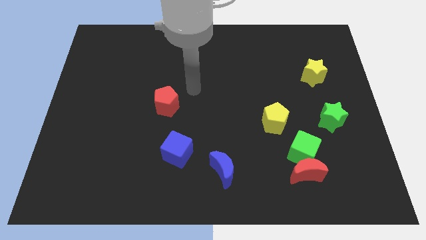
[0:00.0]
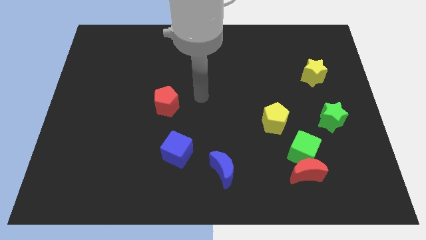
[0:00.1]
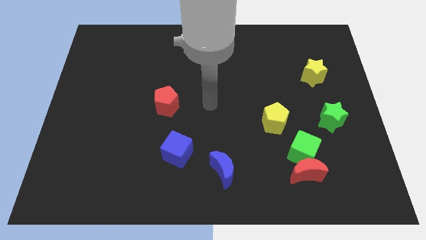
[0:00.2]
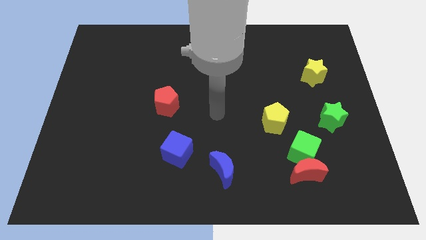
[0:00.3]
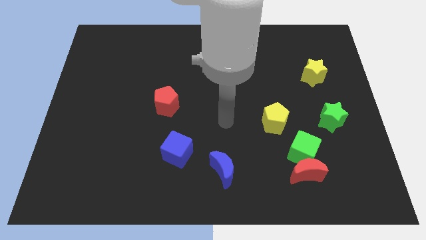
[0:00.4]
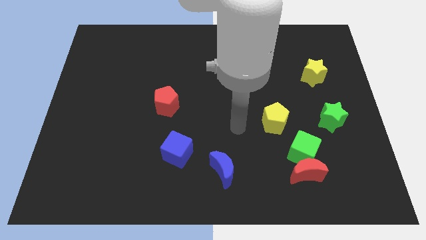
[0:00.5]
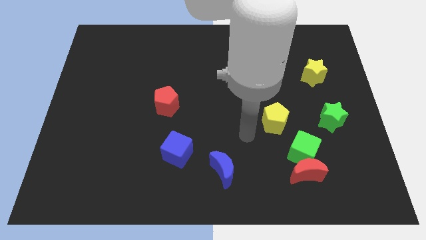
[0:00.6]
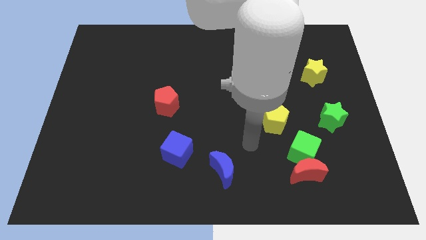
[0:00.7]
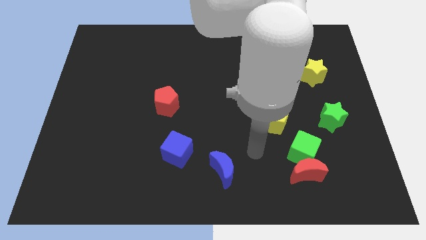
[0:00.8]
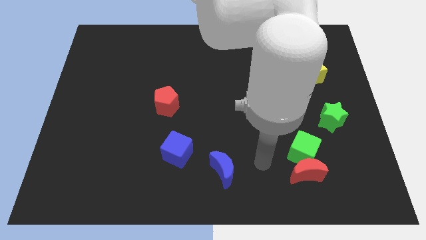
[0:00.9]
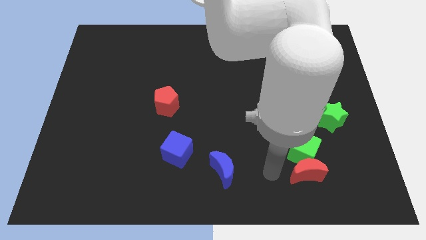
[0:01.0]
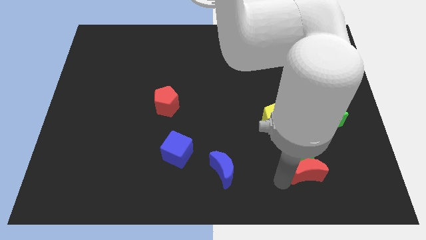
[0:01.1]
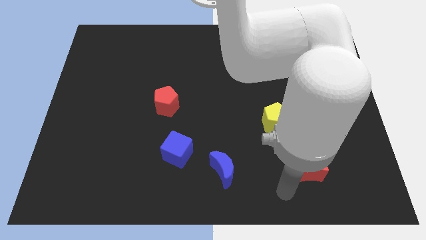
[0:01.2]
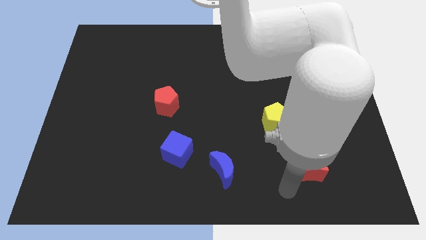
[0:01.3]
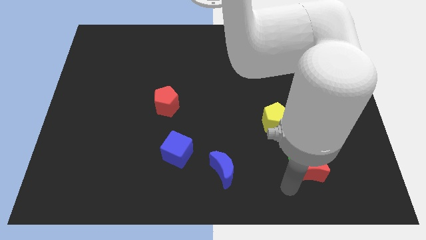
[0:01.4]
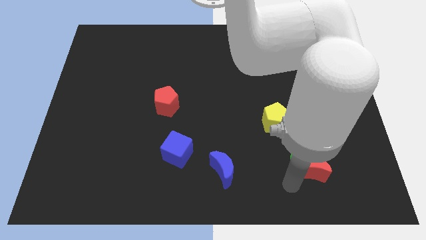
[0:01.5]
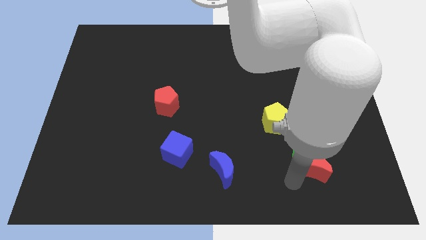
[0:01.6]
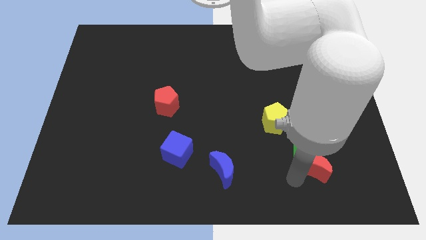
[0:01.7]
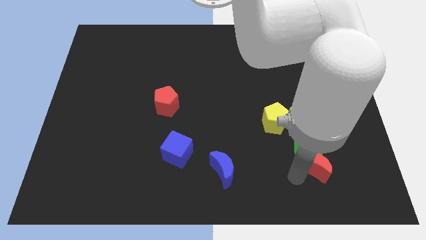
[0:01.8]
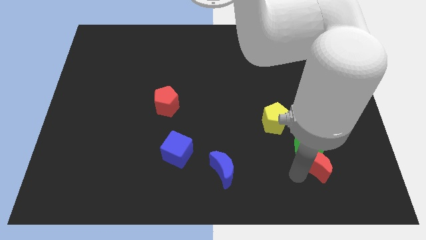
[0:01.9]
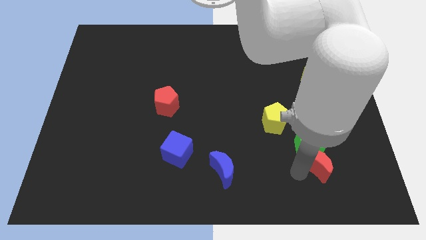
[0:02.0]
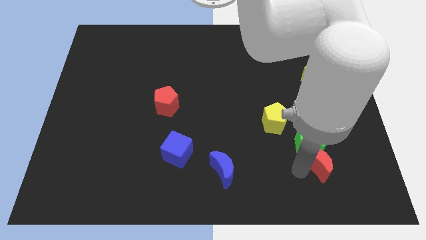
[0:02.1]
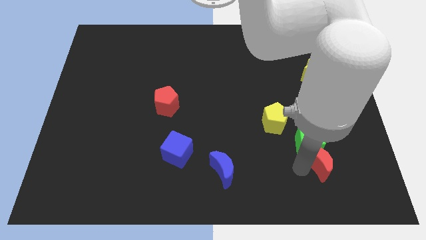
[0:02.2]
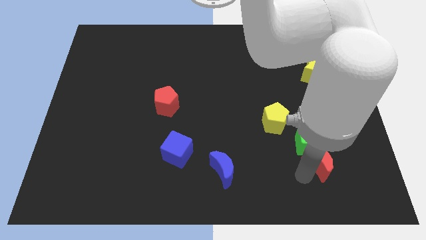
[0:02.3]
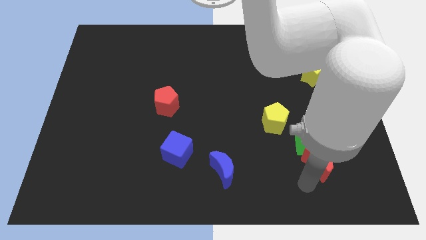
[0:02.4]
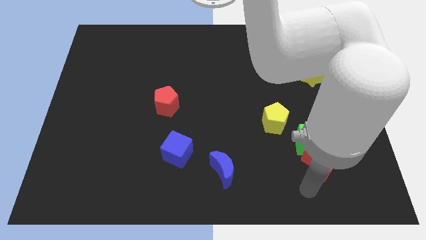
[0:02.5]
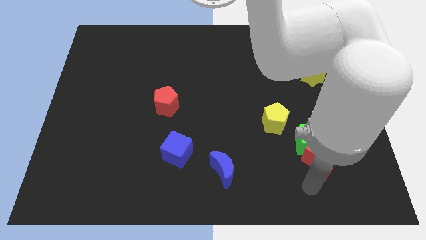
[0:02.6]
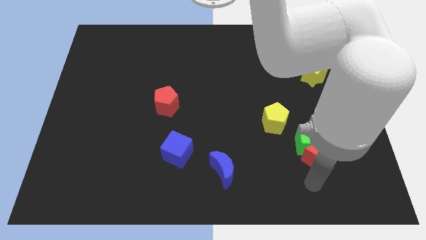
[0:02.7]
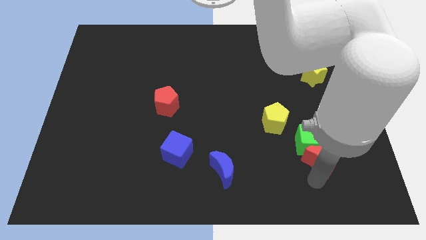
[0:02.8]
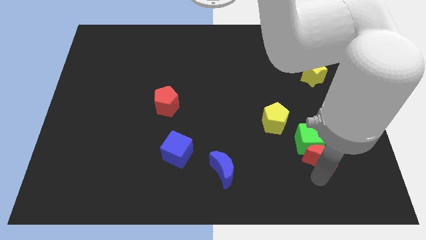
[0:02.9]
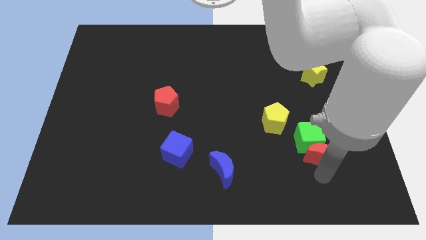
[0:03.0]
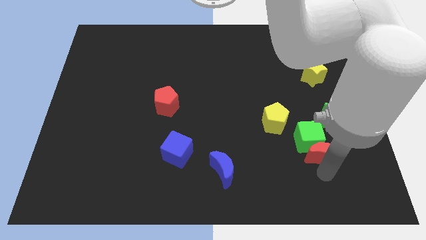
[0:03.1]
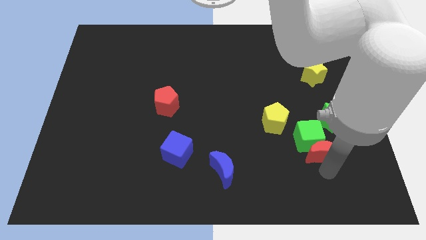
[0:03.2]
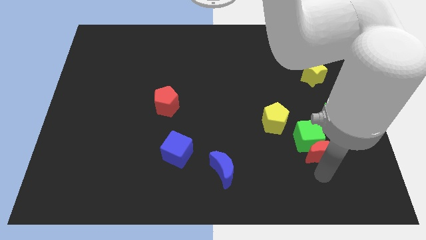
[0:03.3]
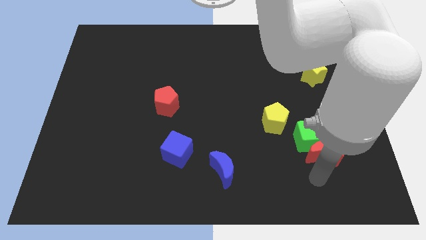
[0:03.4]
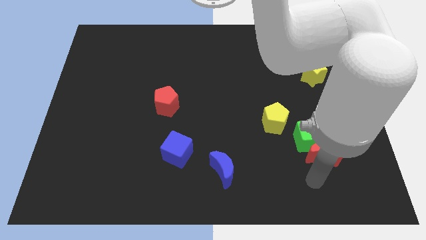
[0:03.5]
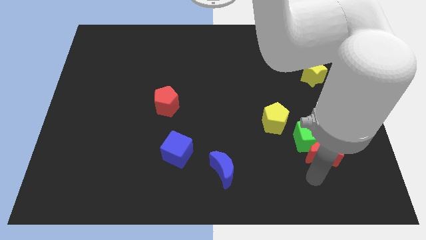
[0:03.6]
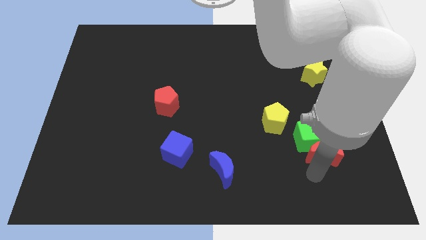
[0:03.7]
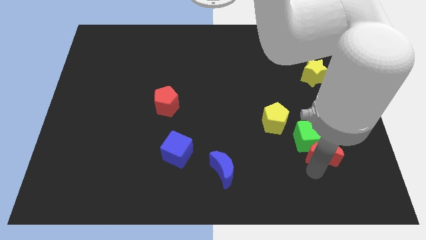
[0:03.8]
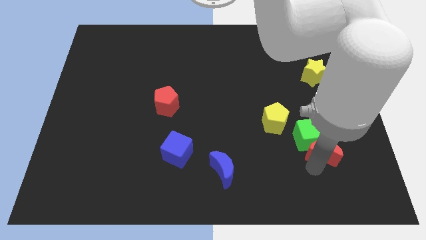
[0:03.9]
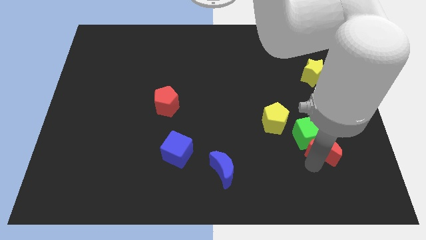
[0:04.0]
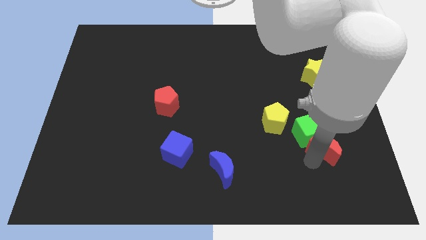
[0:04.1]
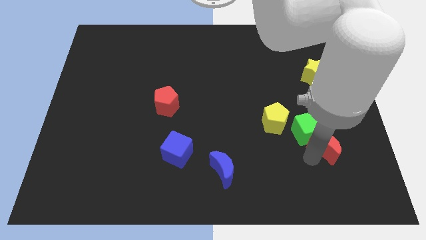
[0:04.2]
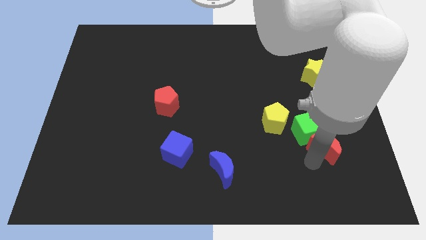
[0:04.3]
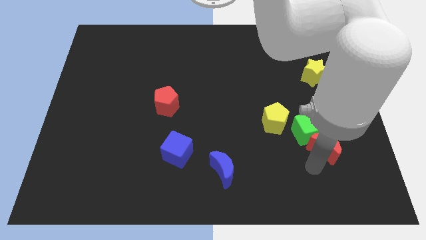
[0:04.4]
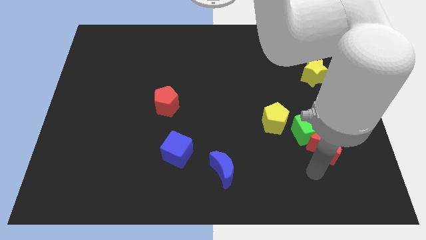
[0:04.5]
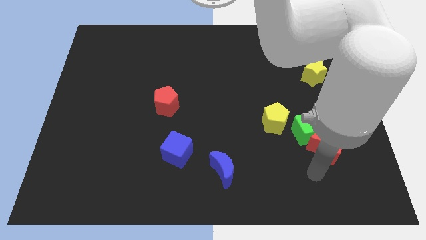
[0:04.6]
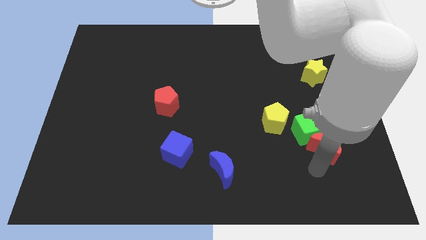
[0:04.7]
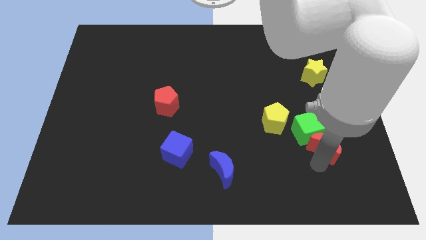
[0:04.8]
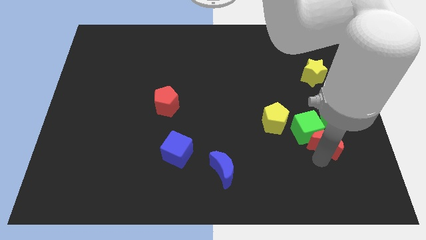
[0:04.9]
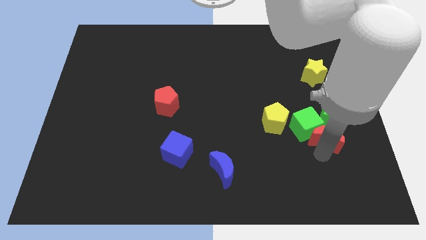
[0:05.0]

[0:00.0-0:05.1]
move the red moon close to the green star

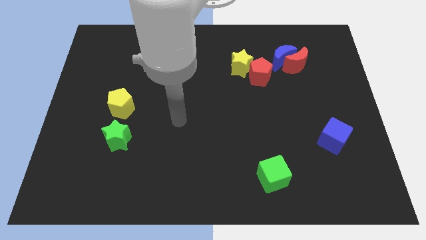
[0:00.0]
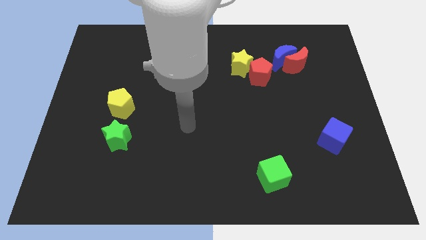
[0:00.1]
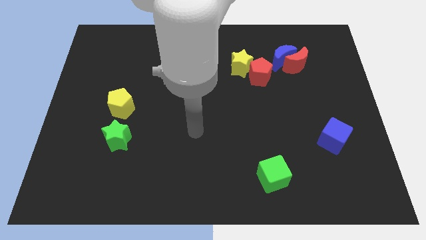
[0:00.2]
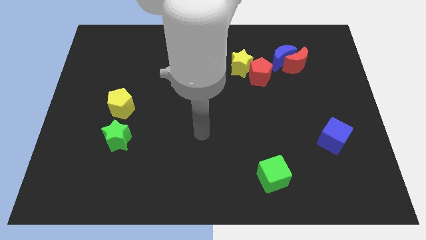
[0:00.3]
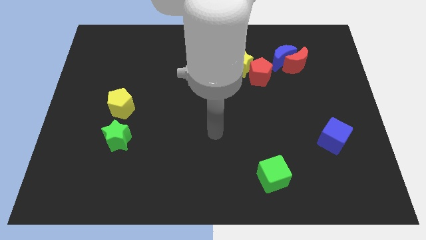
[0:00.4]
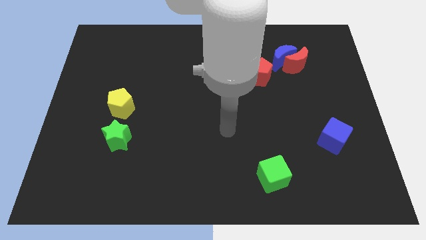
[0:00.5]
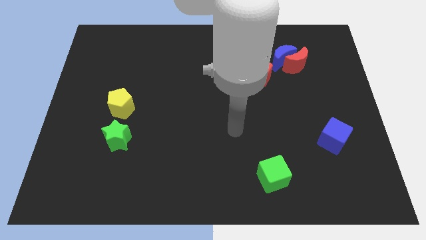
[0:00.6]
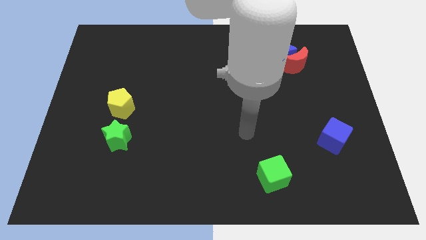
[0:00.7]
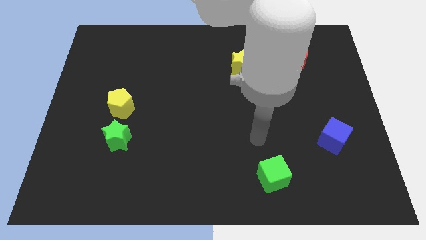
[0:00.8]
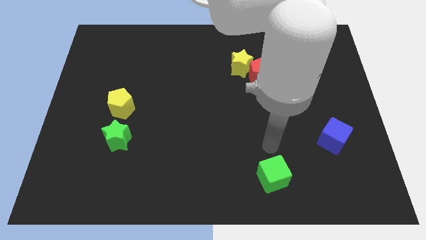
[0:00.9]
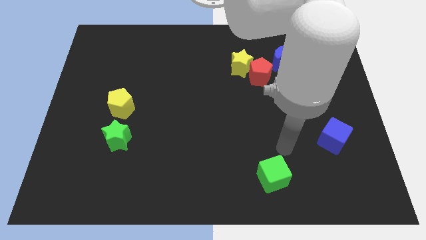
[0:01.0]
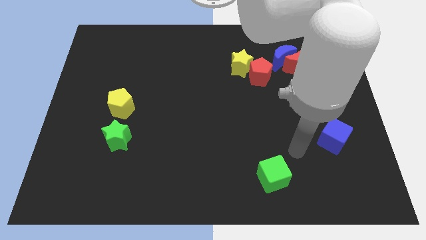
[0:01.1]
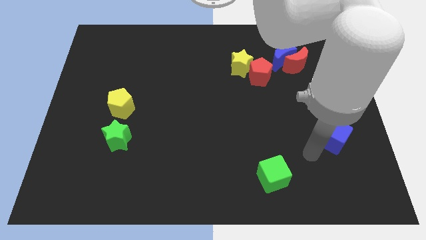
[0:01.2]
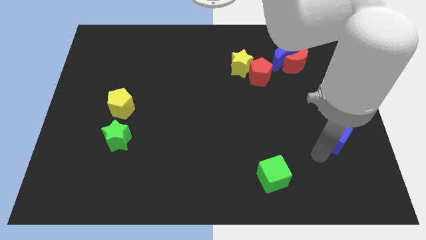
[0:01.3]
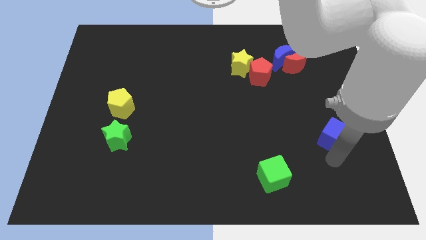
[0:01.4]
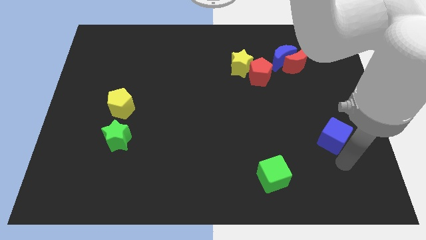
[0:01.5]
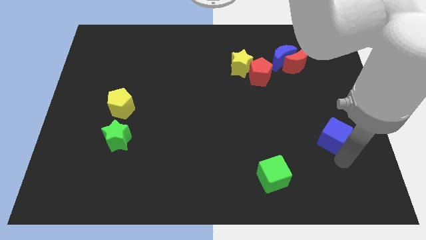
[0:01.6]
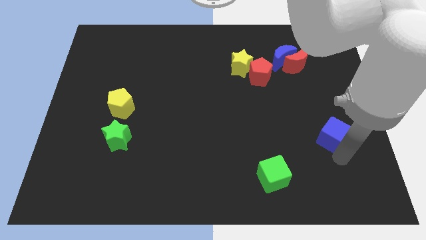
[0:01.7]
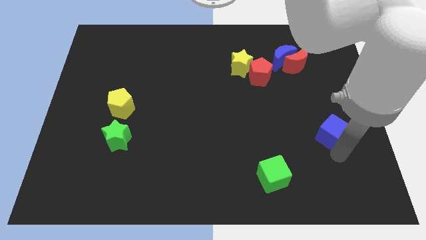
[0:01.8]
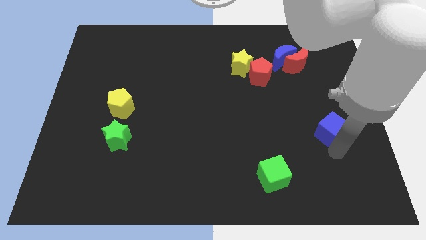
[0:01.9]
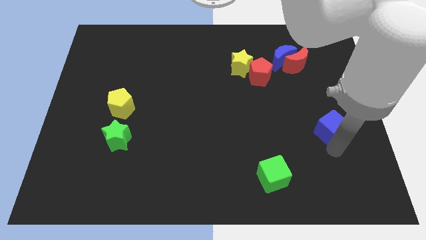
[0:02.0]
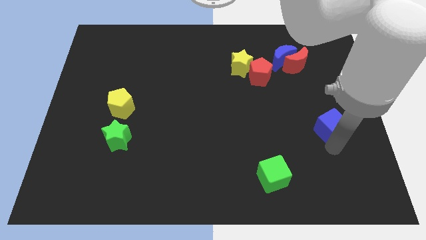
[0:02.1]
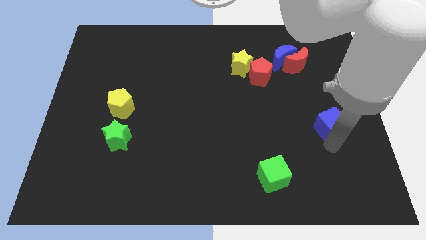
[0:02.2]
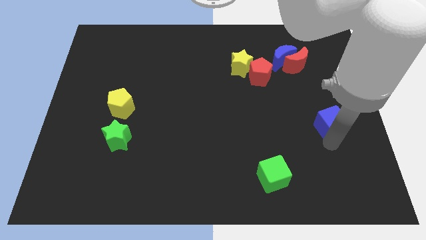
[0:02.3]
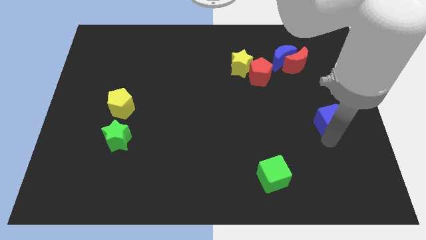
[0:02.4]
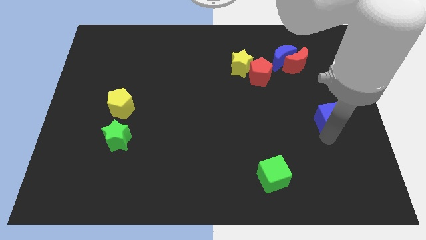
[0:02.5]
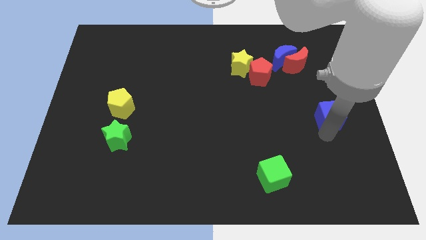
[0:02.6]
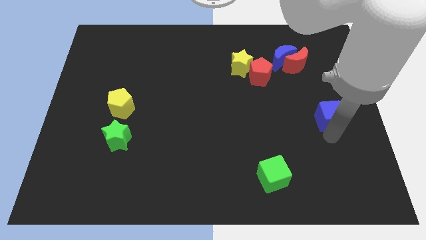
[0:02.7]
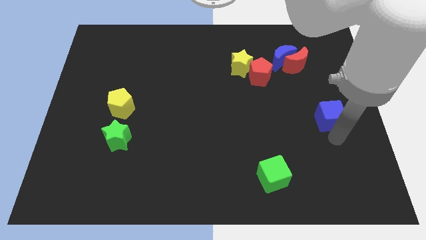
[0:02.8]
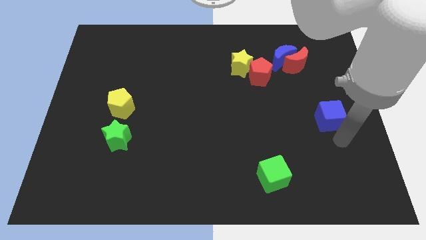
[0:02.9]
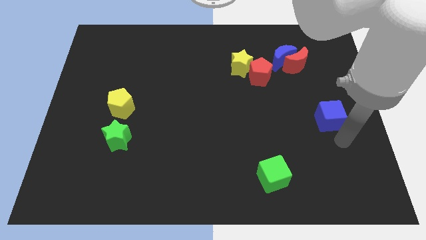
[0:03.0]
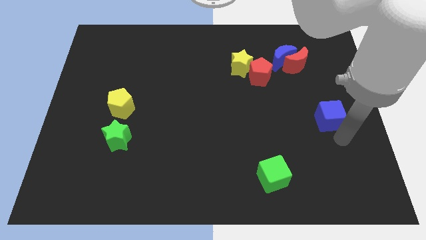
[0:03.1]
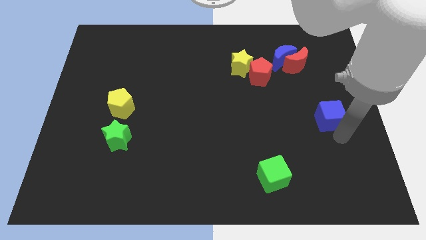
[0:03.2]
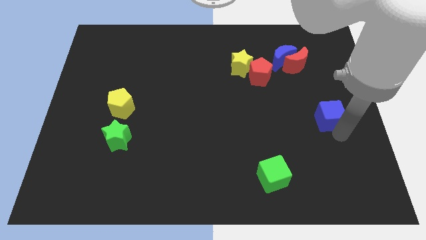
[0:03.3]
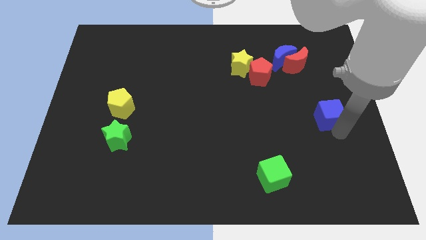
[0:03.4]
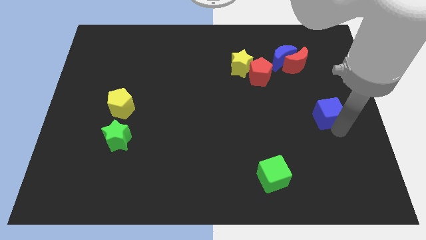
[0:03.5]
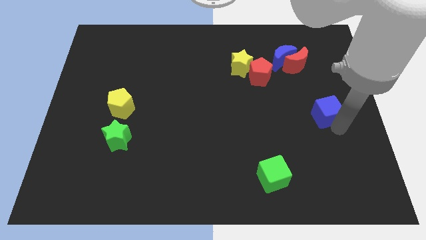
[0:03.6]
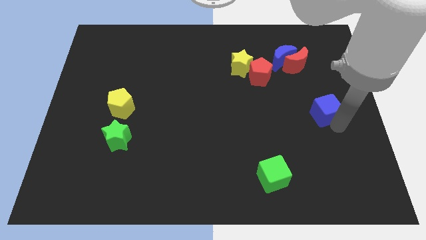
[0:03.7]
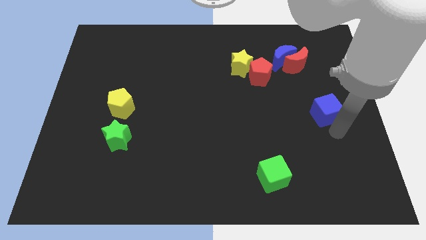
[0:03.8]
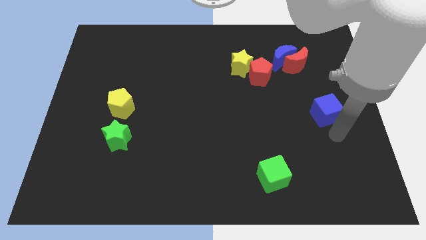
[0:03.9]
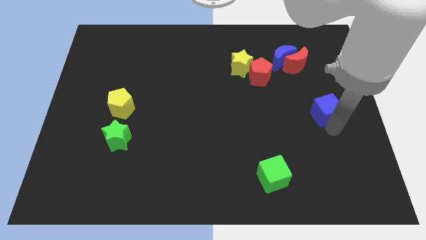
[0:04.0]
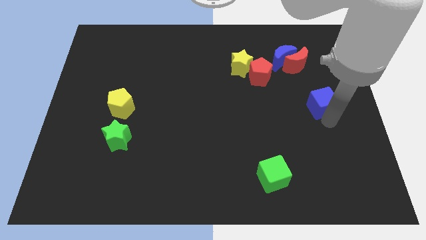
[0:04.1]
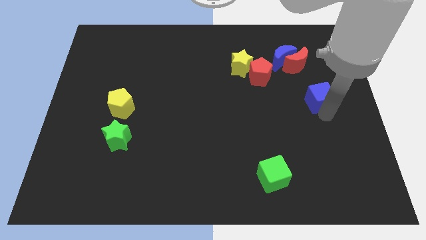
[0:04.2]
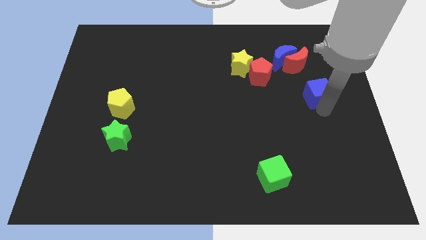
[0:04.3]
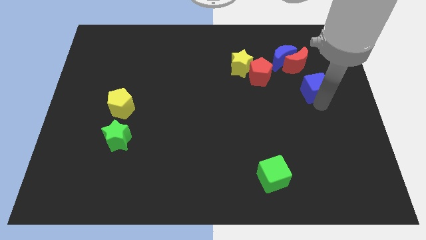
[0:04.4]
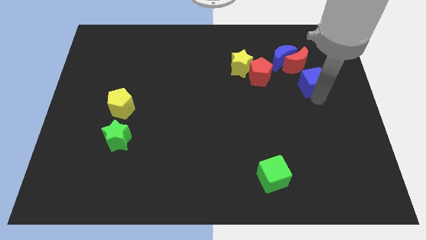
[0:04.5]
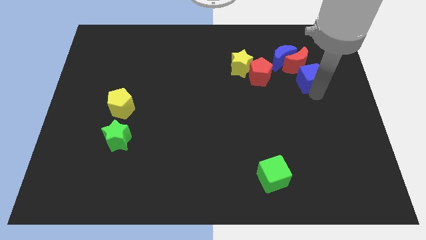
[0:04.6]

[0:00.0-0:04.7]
push the blue cube next to the red moon
